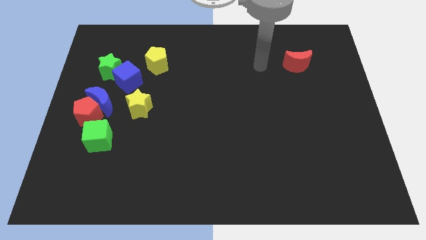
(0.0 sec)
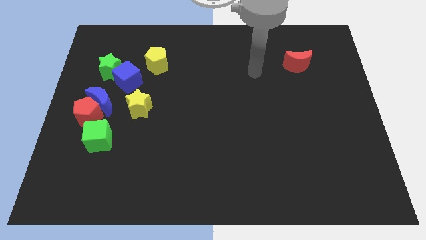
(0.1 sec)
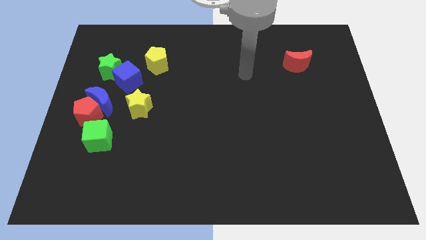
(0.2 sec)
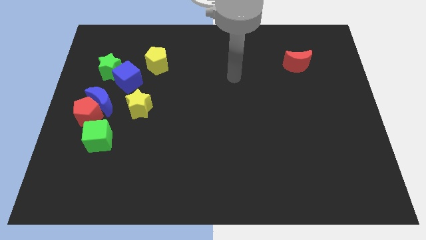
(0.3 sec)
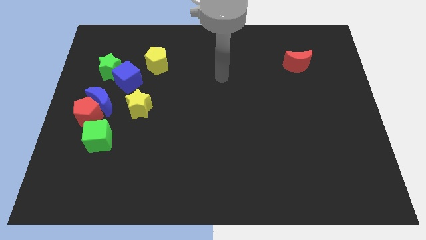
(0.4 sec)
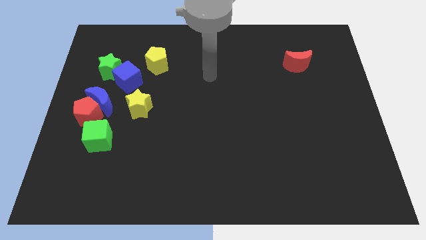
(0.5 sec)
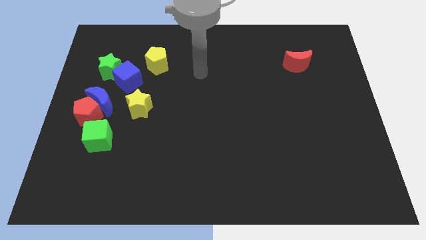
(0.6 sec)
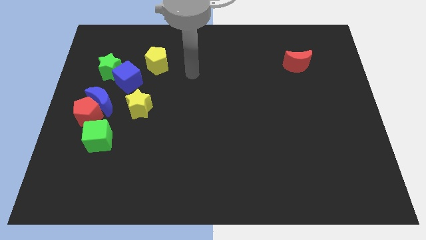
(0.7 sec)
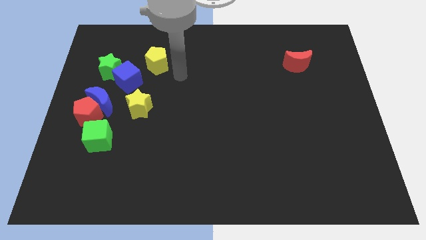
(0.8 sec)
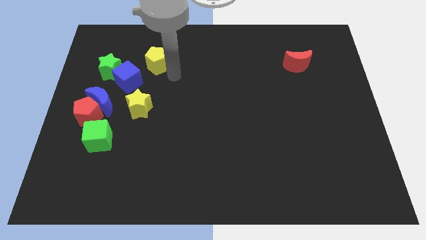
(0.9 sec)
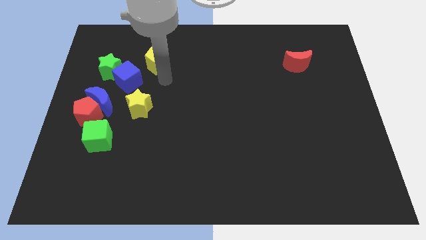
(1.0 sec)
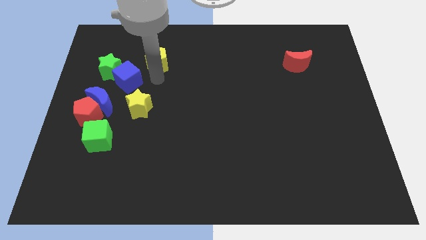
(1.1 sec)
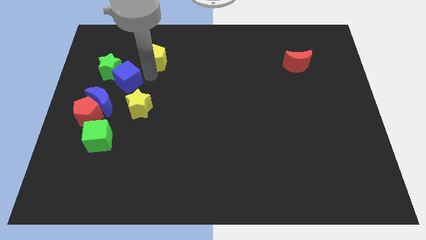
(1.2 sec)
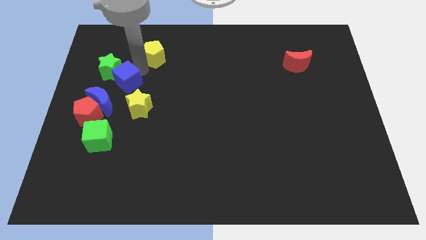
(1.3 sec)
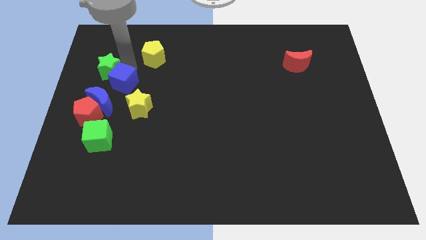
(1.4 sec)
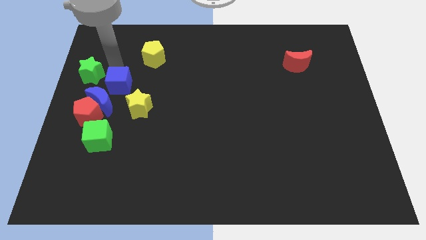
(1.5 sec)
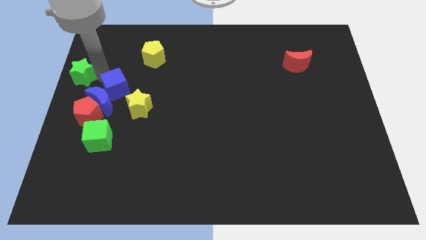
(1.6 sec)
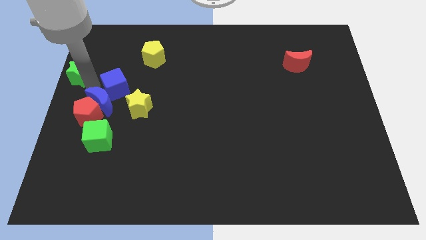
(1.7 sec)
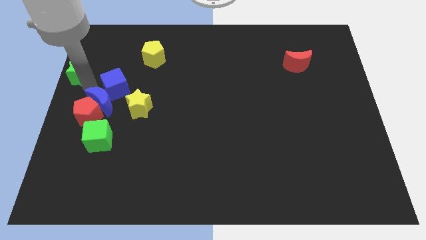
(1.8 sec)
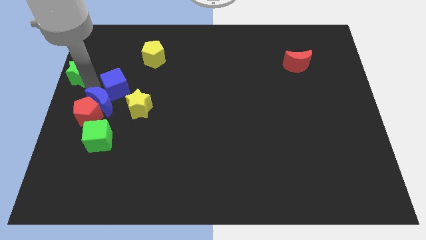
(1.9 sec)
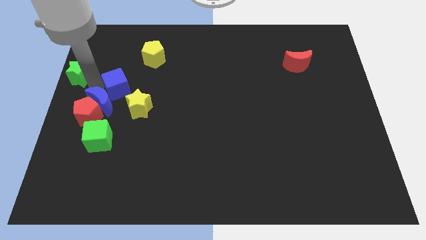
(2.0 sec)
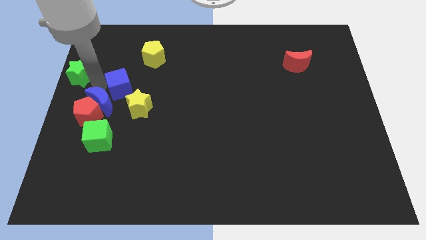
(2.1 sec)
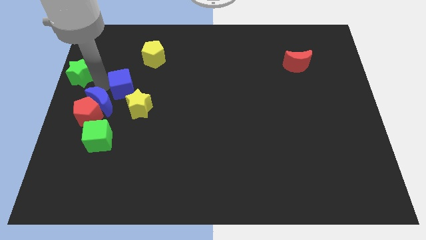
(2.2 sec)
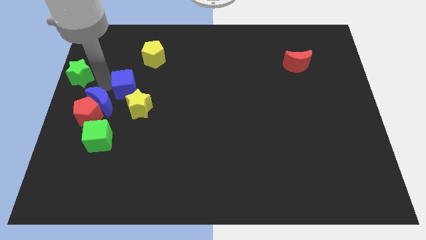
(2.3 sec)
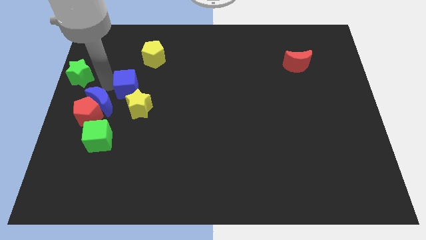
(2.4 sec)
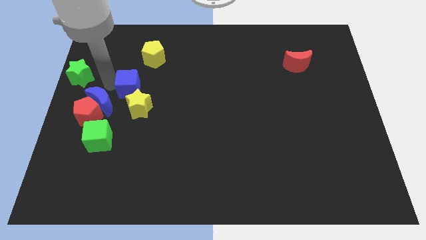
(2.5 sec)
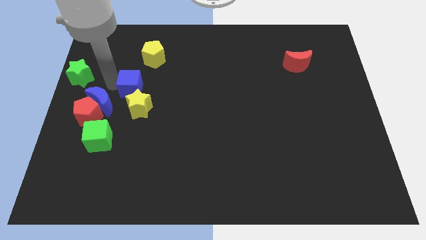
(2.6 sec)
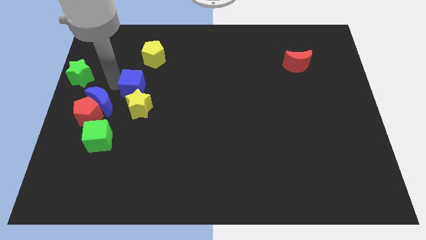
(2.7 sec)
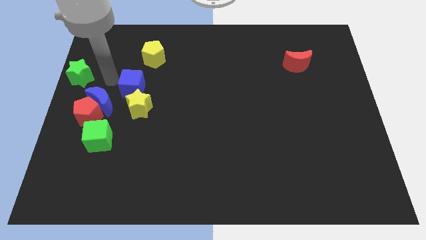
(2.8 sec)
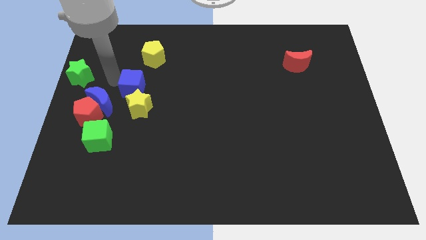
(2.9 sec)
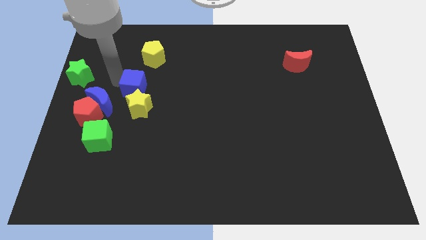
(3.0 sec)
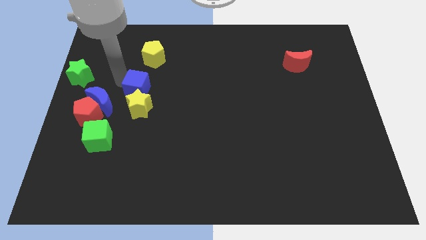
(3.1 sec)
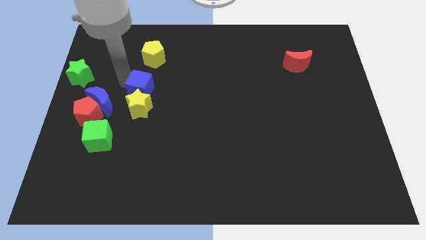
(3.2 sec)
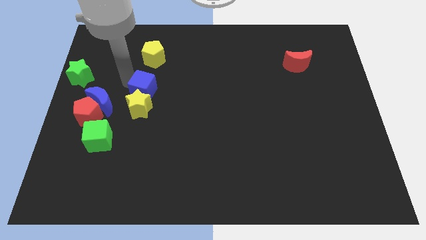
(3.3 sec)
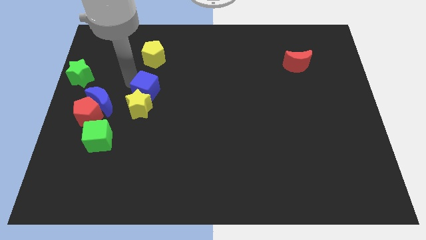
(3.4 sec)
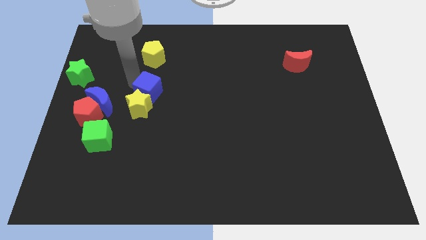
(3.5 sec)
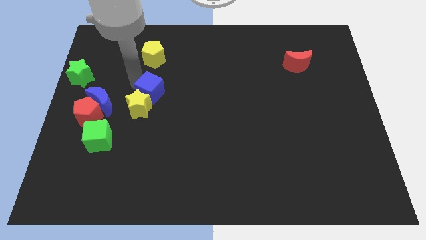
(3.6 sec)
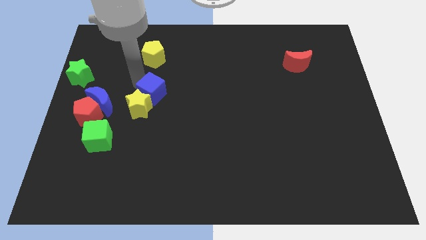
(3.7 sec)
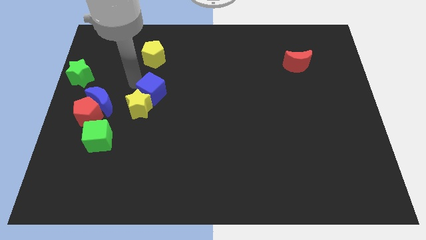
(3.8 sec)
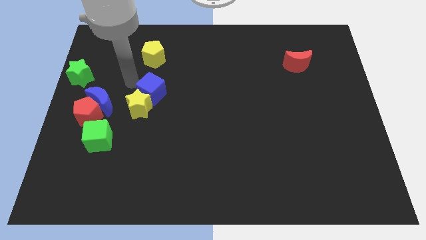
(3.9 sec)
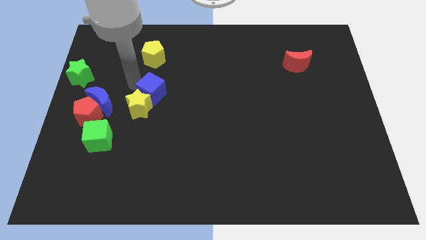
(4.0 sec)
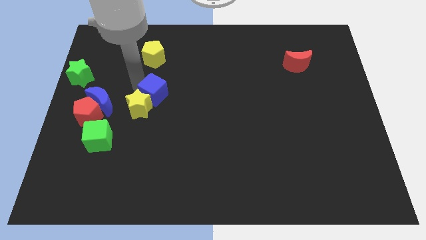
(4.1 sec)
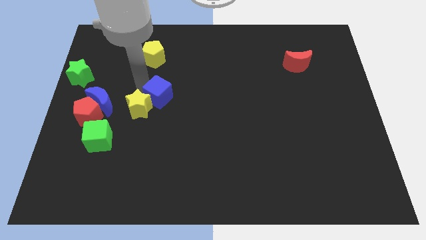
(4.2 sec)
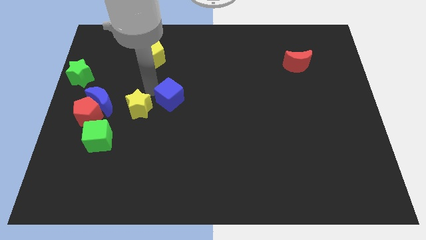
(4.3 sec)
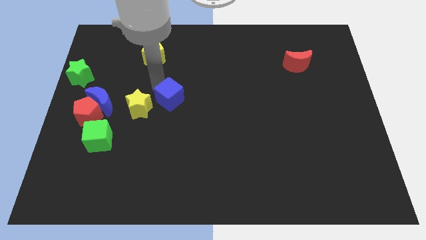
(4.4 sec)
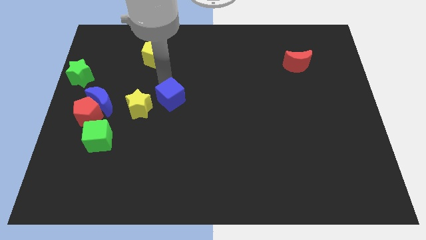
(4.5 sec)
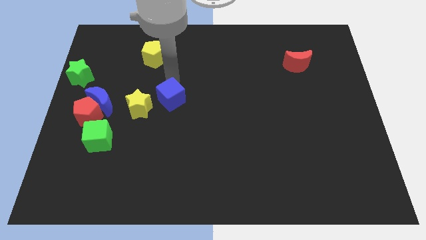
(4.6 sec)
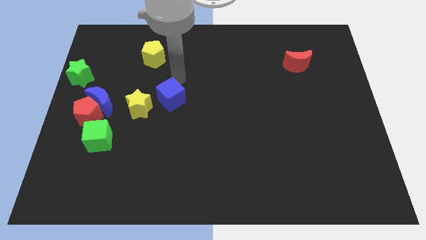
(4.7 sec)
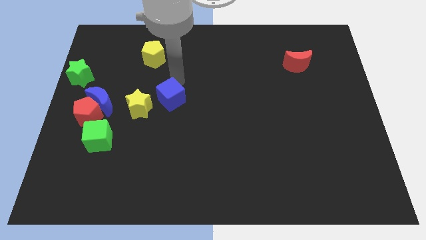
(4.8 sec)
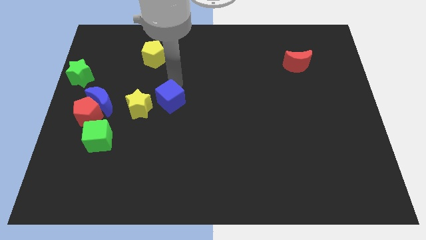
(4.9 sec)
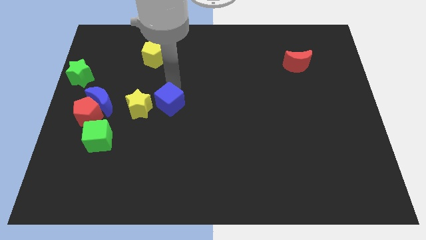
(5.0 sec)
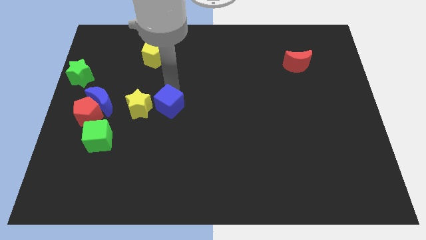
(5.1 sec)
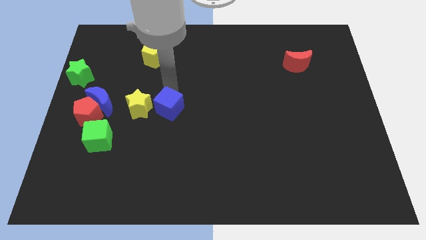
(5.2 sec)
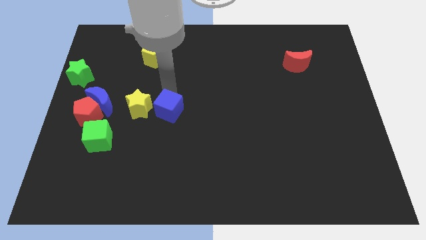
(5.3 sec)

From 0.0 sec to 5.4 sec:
move the blue cube to the bottom right of the yellow star
